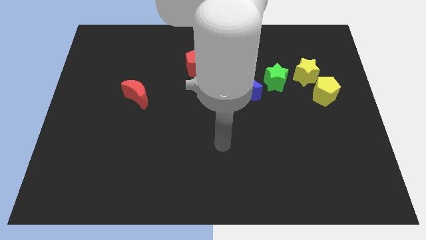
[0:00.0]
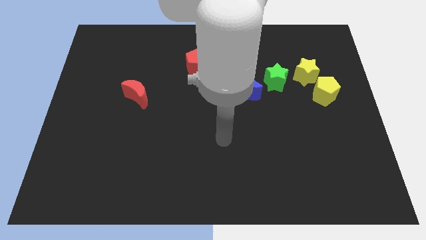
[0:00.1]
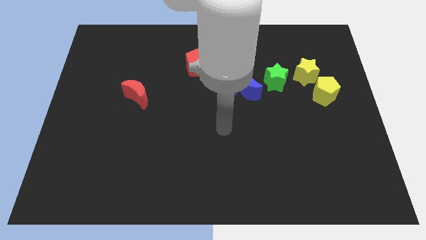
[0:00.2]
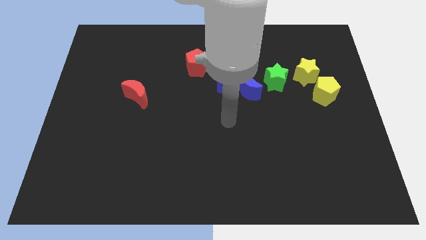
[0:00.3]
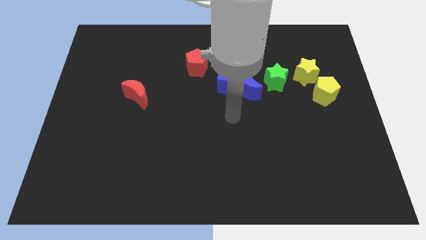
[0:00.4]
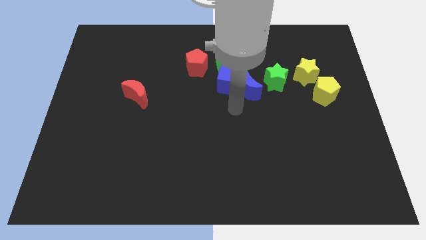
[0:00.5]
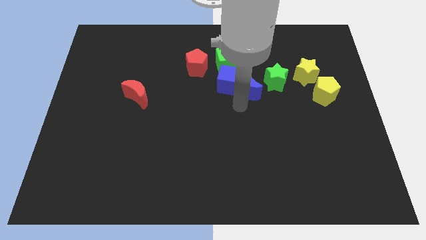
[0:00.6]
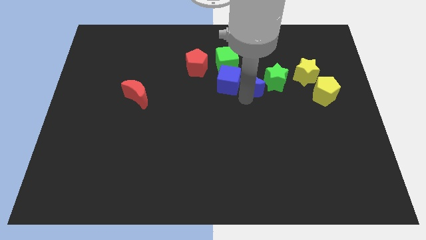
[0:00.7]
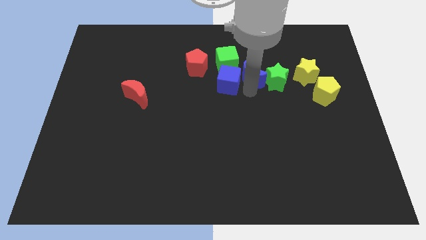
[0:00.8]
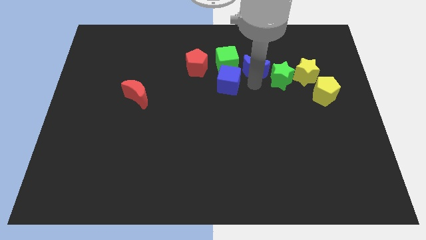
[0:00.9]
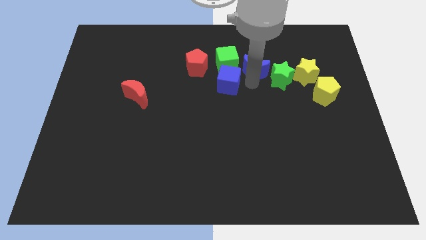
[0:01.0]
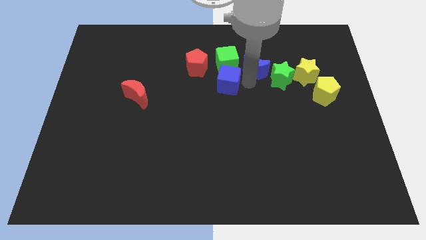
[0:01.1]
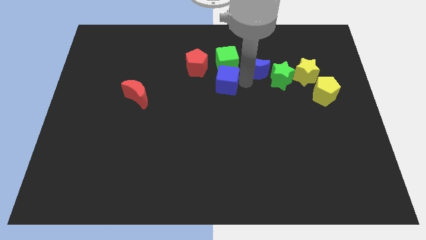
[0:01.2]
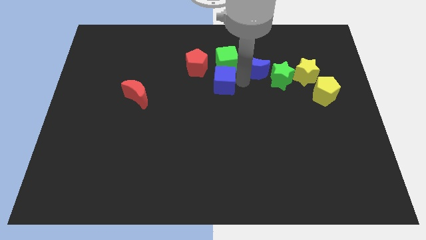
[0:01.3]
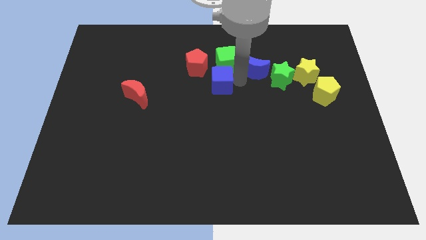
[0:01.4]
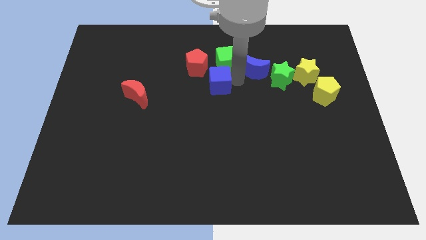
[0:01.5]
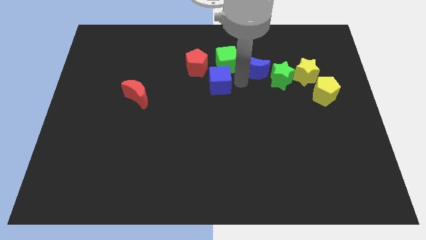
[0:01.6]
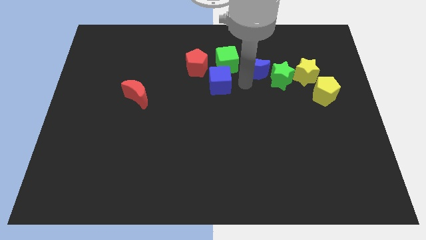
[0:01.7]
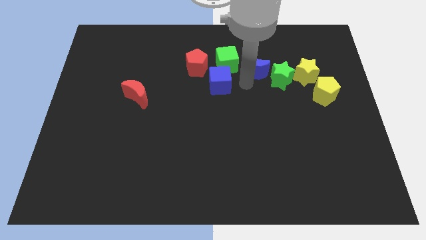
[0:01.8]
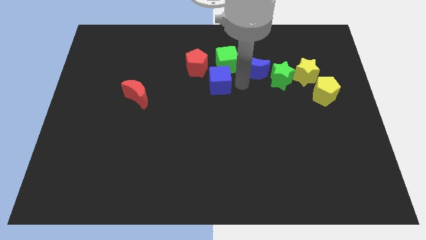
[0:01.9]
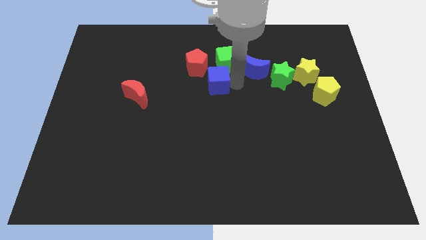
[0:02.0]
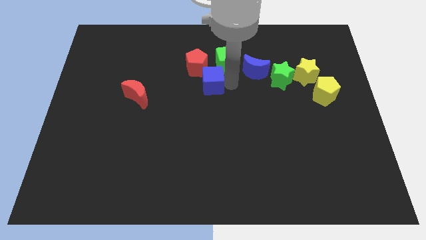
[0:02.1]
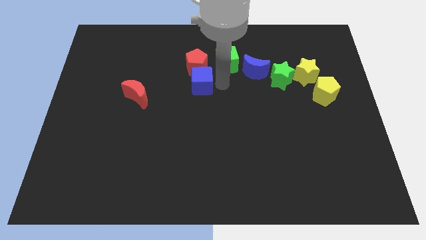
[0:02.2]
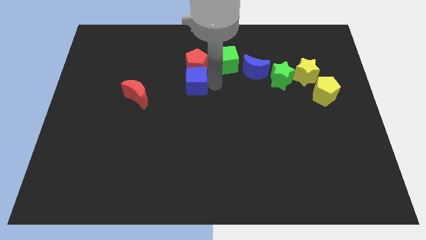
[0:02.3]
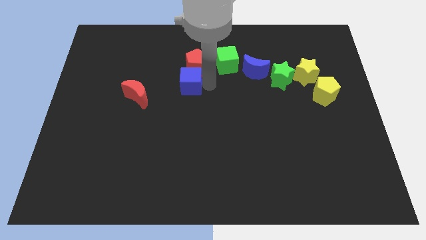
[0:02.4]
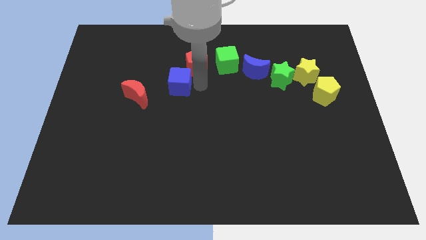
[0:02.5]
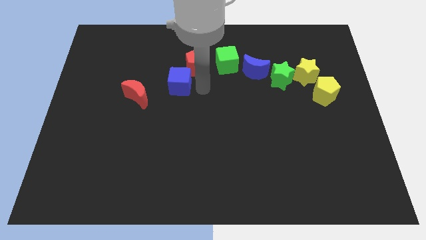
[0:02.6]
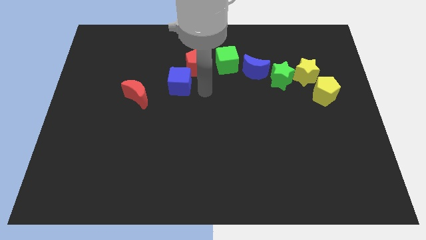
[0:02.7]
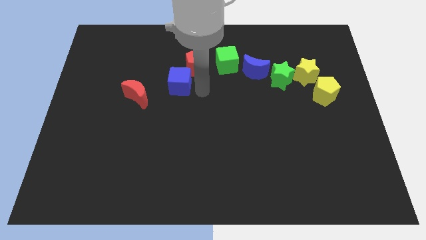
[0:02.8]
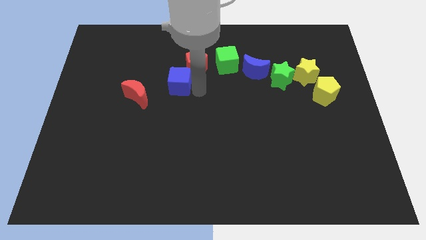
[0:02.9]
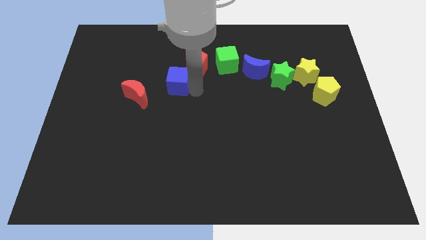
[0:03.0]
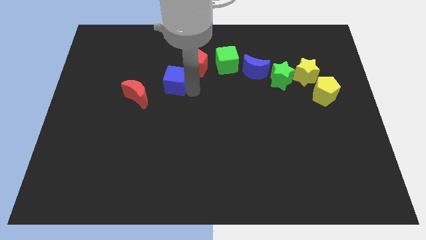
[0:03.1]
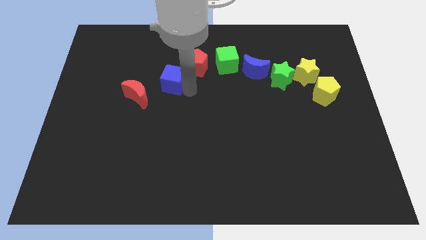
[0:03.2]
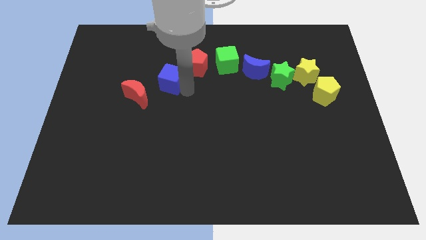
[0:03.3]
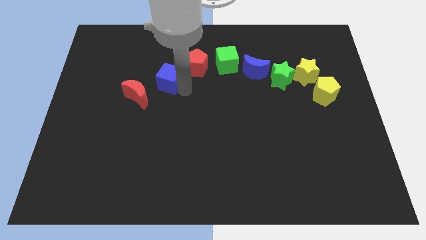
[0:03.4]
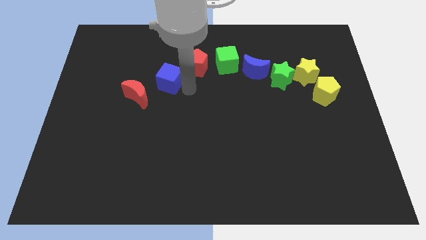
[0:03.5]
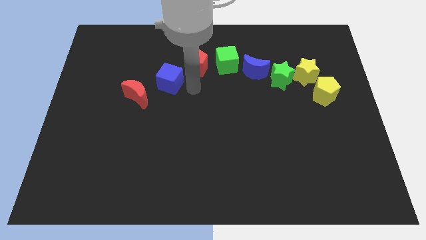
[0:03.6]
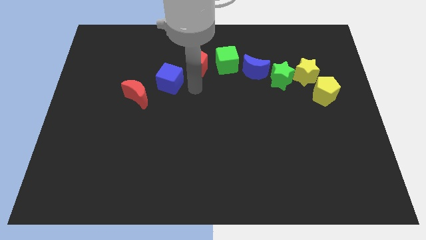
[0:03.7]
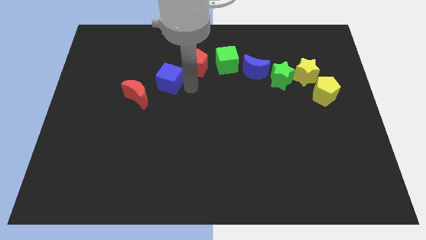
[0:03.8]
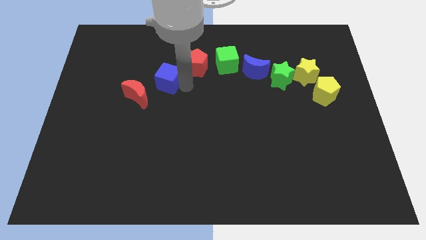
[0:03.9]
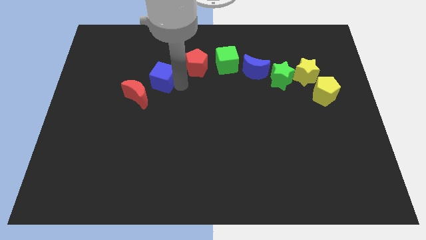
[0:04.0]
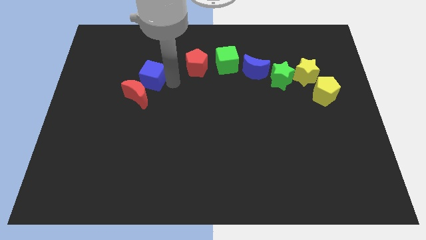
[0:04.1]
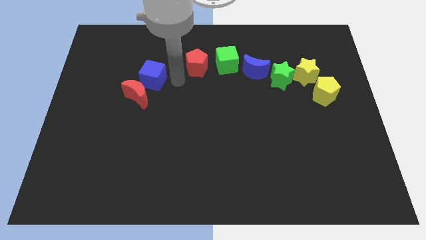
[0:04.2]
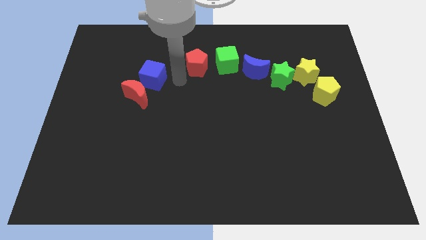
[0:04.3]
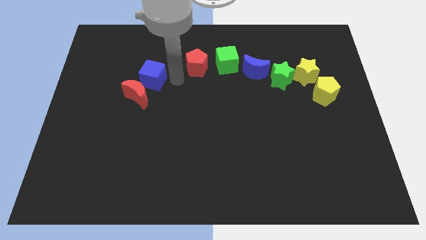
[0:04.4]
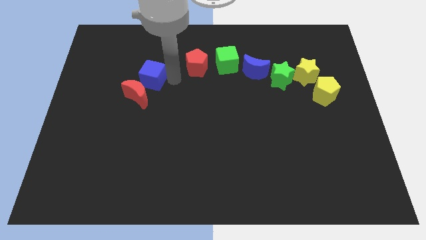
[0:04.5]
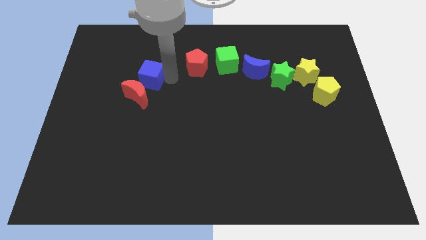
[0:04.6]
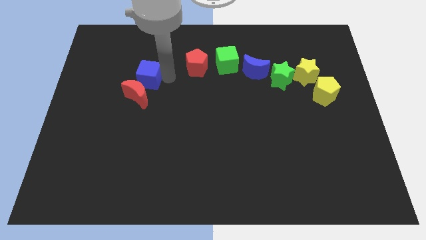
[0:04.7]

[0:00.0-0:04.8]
slide the blue cube left

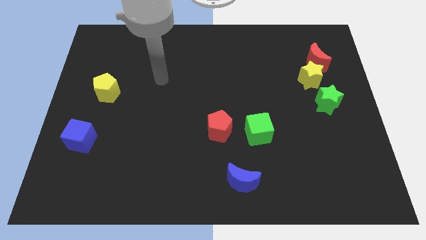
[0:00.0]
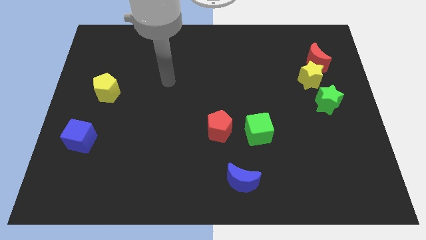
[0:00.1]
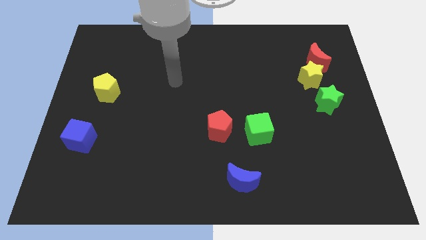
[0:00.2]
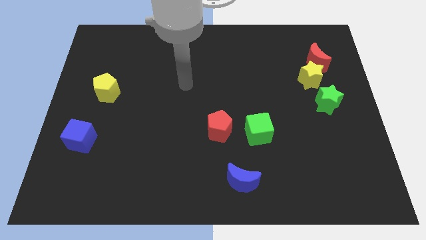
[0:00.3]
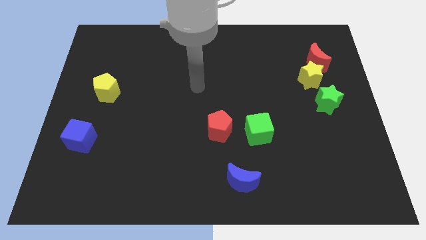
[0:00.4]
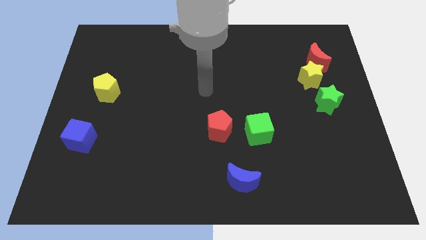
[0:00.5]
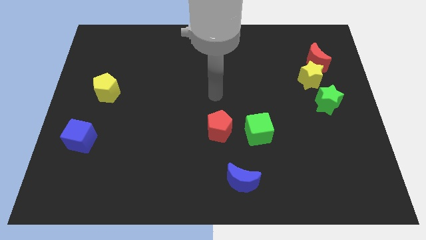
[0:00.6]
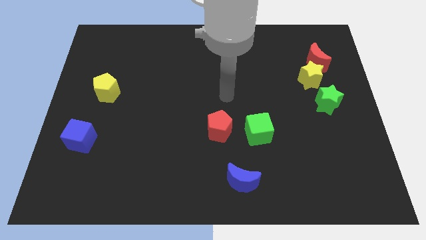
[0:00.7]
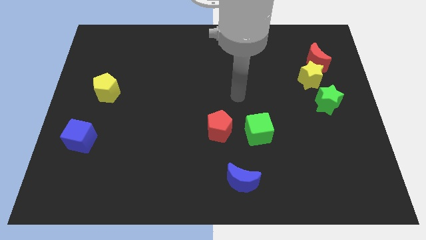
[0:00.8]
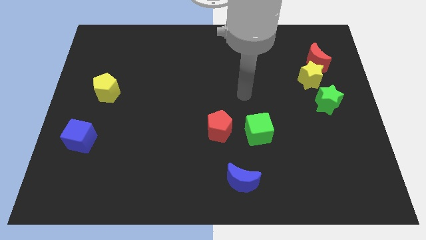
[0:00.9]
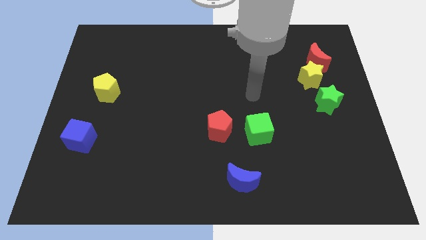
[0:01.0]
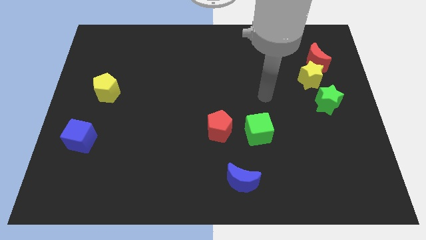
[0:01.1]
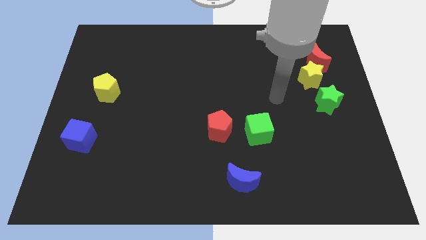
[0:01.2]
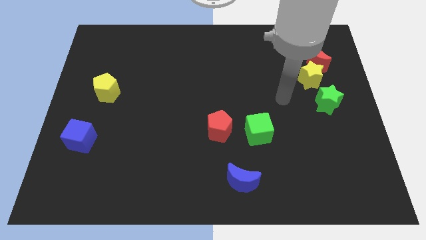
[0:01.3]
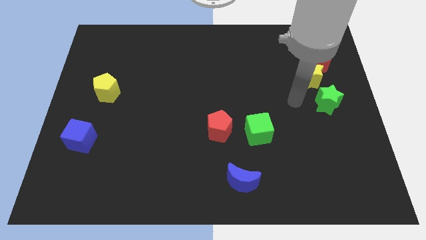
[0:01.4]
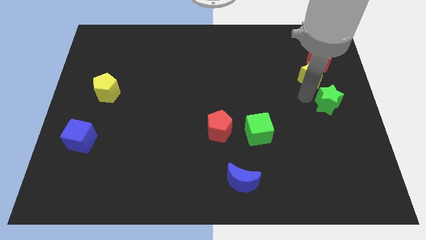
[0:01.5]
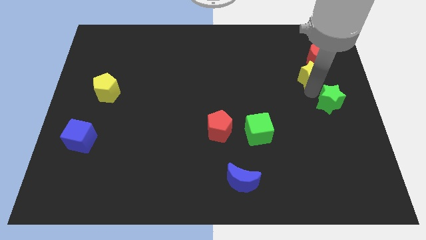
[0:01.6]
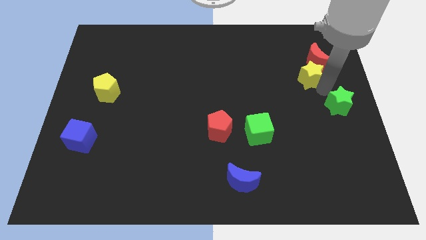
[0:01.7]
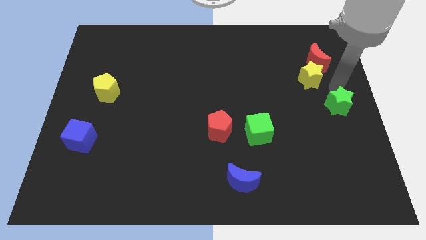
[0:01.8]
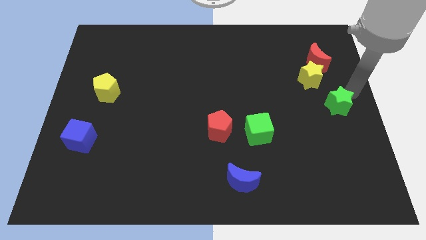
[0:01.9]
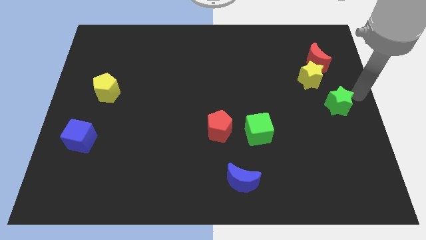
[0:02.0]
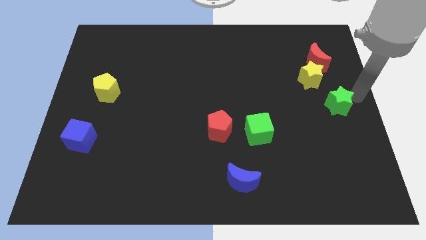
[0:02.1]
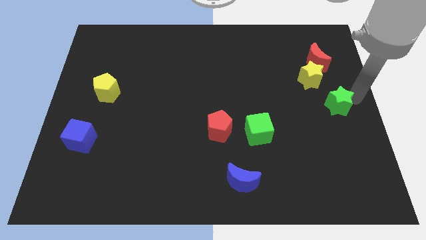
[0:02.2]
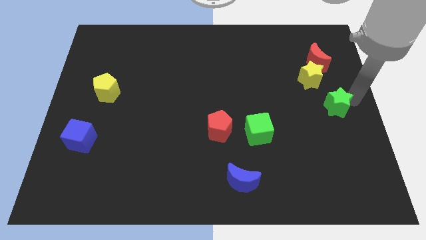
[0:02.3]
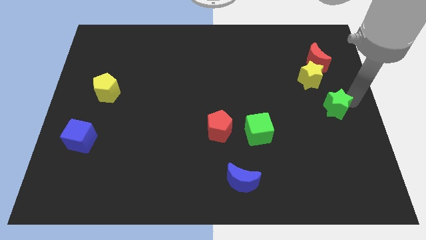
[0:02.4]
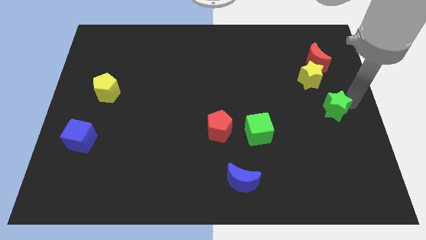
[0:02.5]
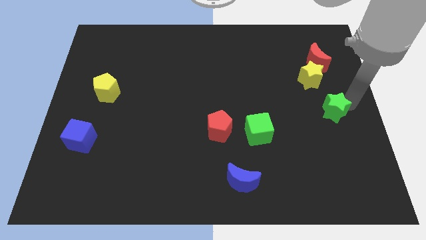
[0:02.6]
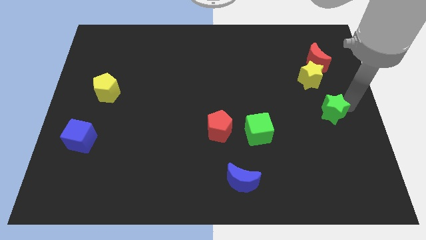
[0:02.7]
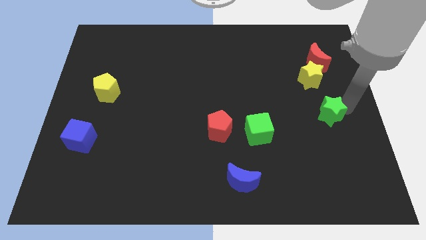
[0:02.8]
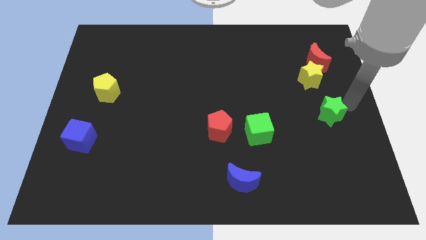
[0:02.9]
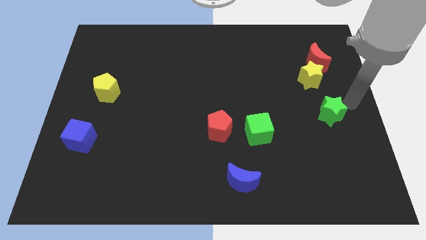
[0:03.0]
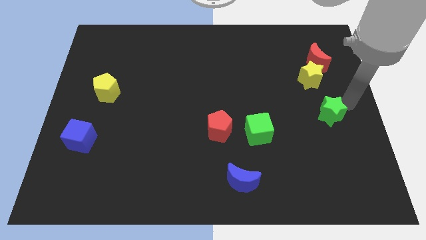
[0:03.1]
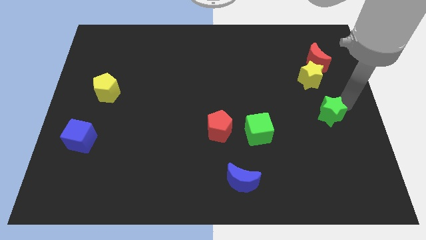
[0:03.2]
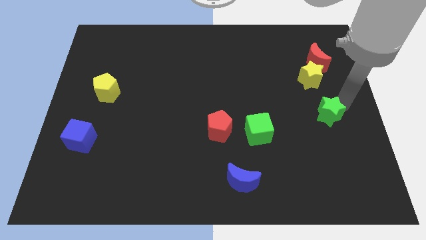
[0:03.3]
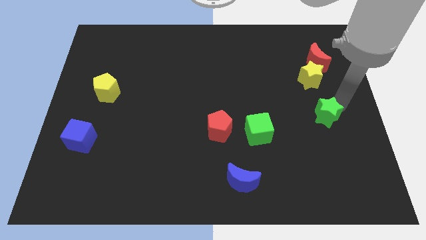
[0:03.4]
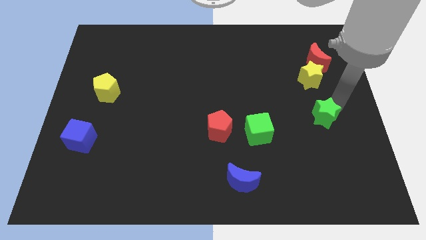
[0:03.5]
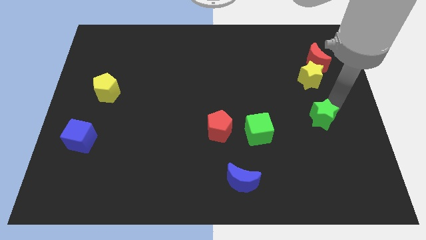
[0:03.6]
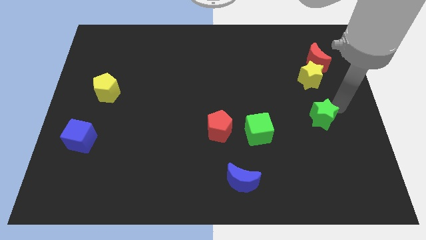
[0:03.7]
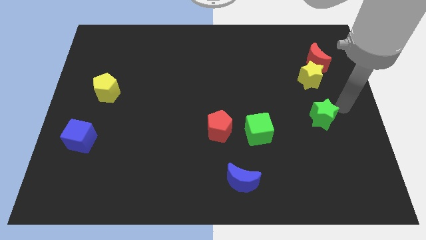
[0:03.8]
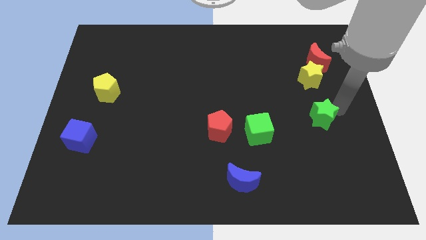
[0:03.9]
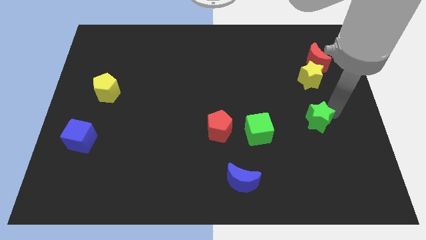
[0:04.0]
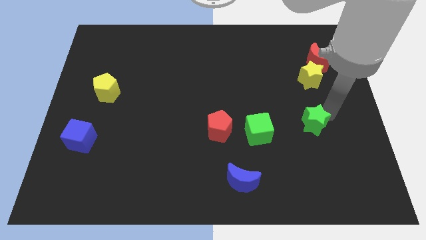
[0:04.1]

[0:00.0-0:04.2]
push the green star a little down and to the left
